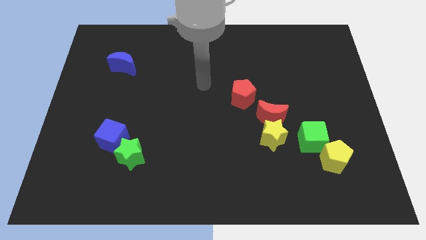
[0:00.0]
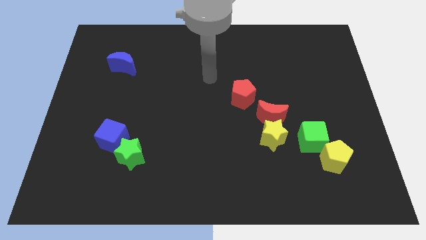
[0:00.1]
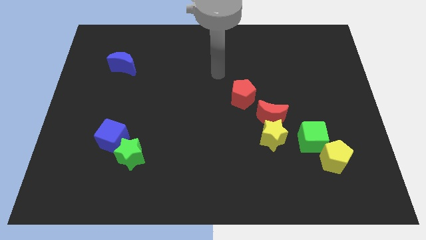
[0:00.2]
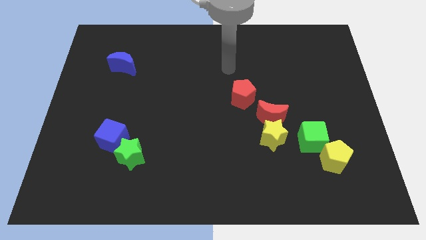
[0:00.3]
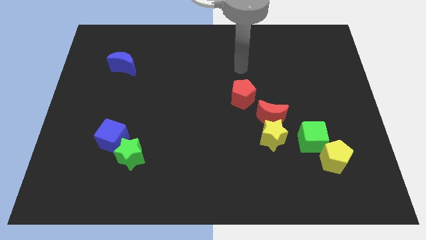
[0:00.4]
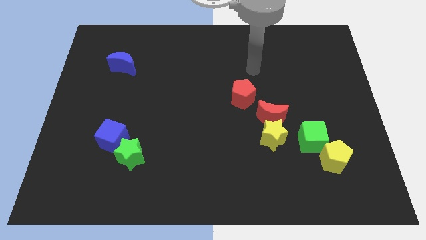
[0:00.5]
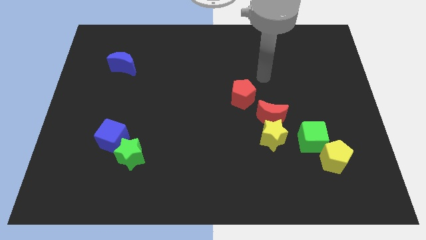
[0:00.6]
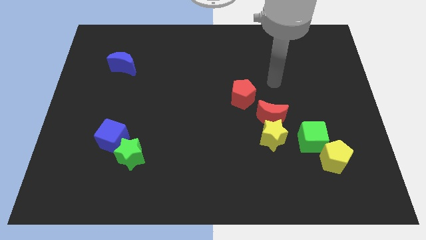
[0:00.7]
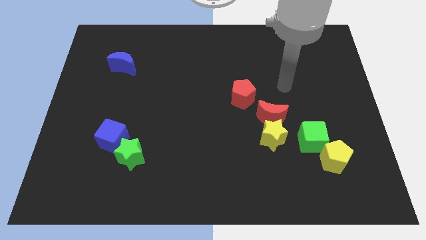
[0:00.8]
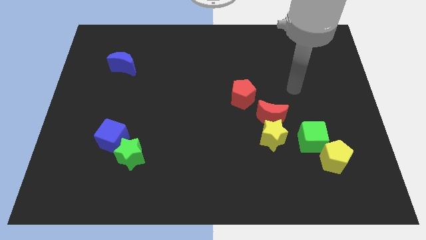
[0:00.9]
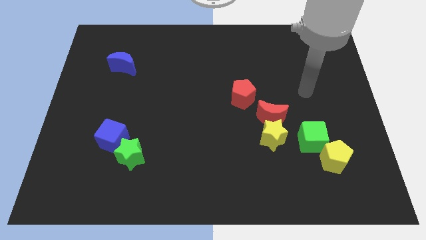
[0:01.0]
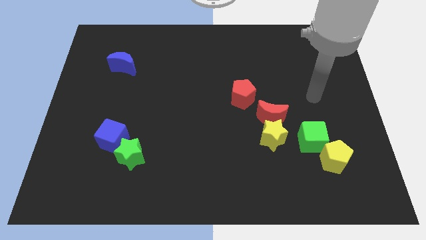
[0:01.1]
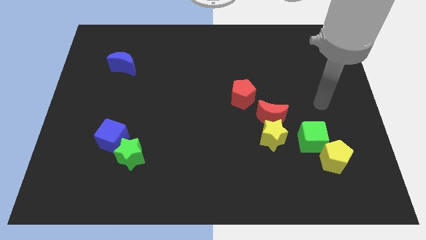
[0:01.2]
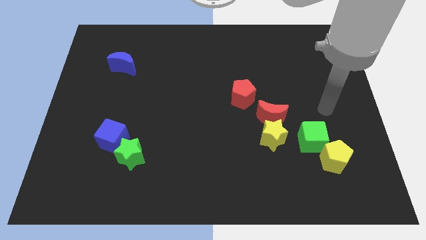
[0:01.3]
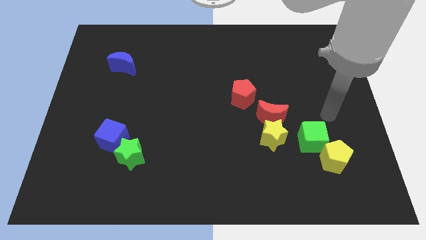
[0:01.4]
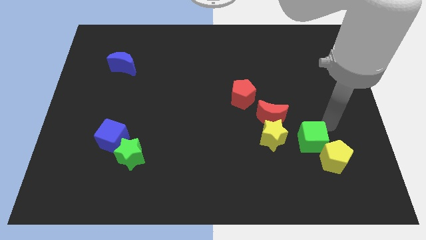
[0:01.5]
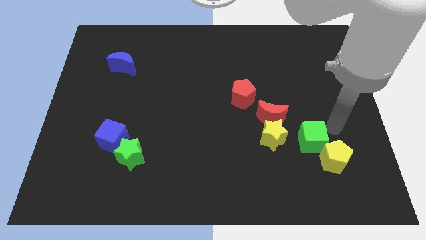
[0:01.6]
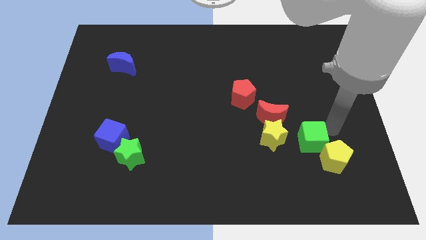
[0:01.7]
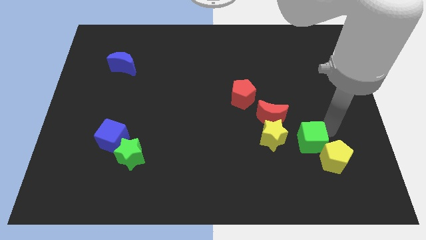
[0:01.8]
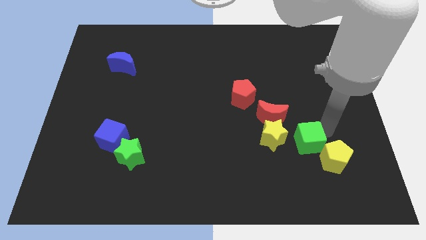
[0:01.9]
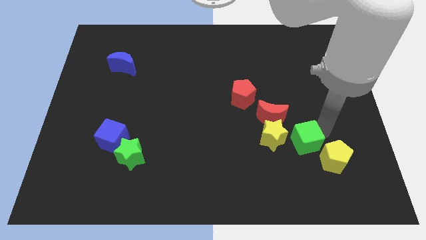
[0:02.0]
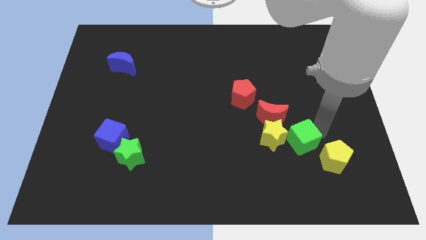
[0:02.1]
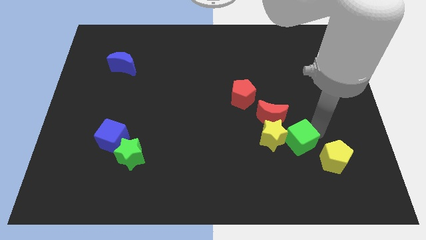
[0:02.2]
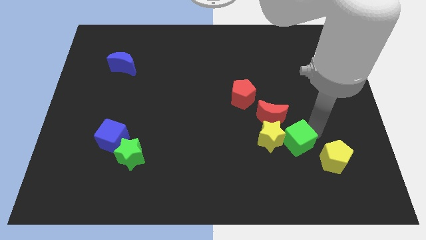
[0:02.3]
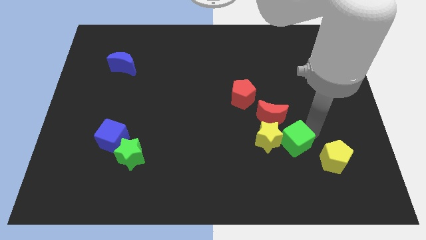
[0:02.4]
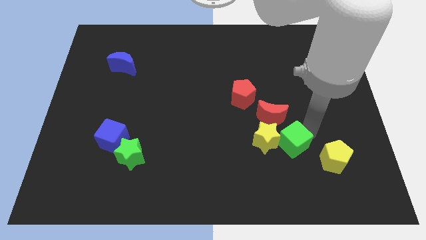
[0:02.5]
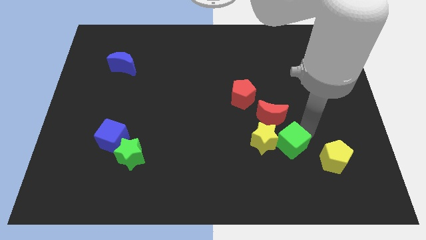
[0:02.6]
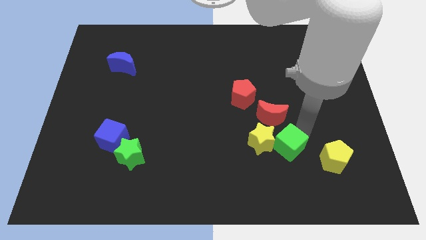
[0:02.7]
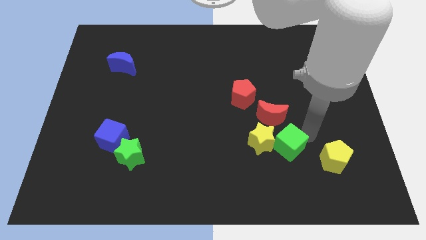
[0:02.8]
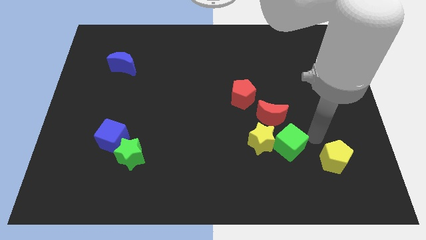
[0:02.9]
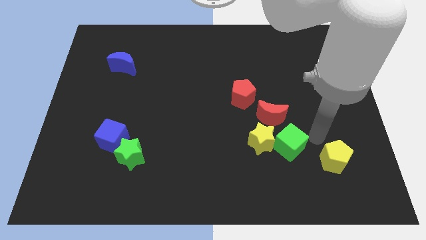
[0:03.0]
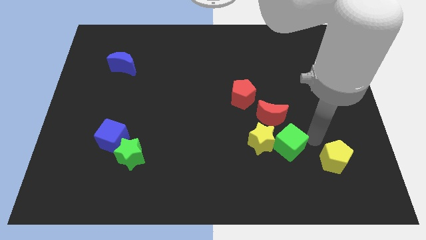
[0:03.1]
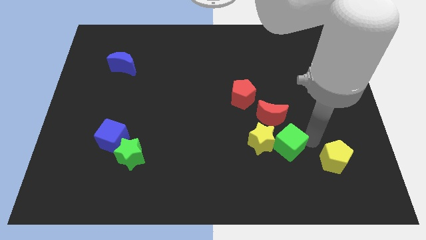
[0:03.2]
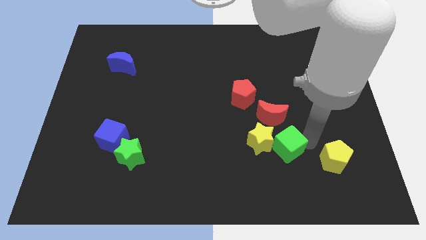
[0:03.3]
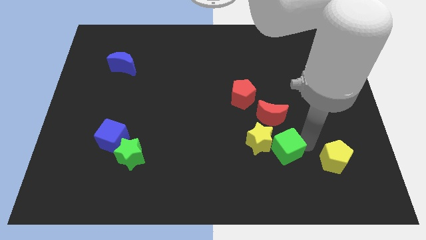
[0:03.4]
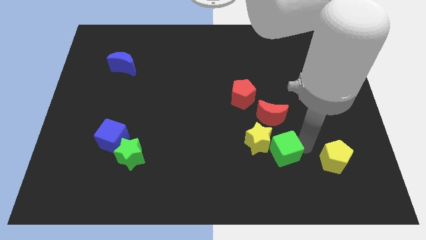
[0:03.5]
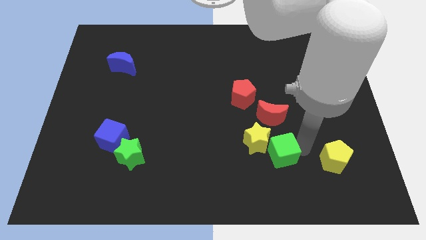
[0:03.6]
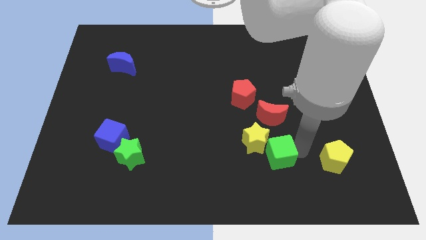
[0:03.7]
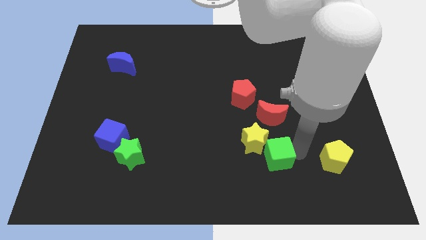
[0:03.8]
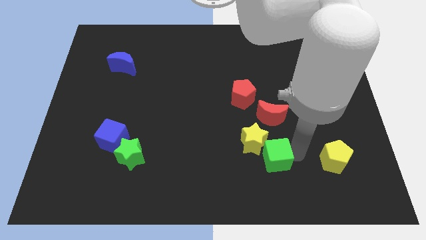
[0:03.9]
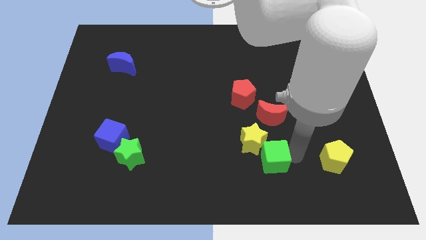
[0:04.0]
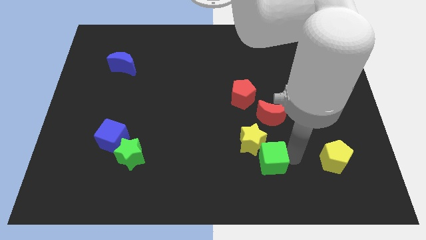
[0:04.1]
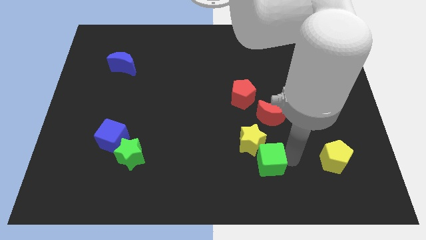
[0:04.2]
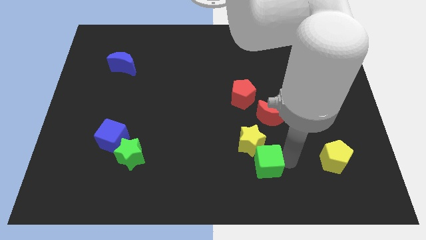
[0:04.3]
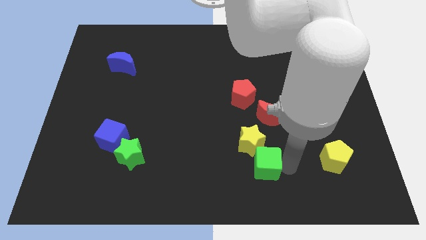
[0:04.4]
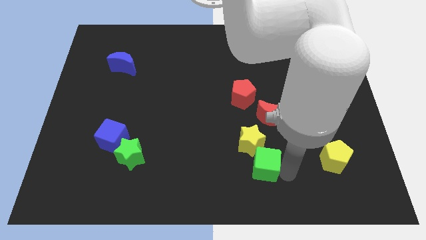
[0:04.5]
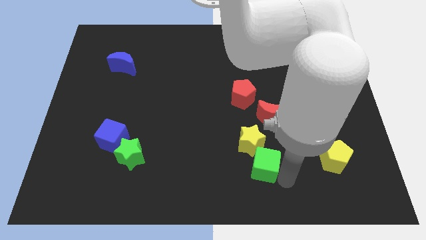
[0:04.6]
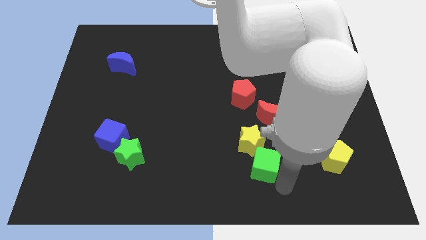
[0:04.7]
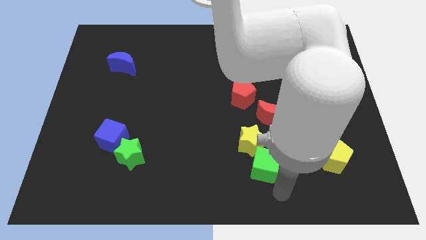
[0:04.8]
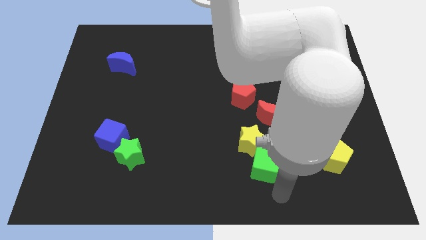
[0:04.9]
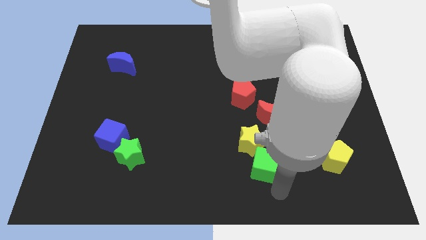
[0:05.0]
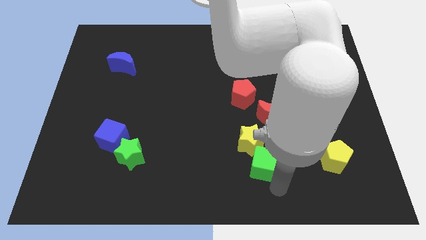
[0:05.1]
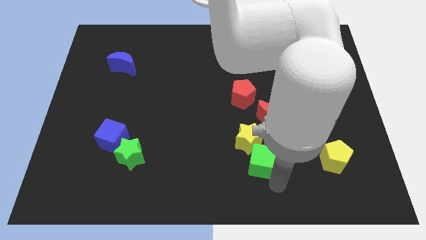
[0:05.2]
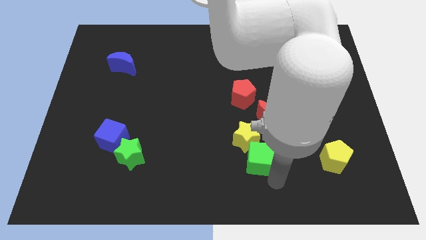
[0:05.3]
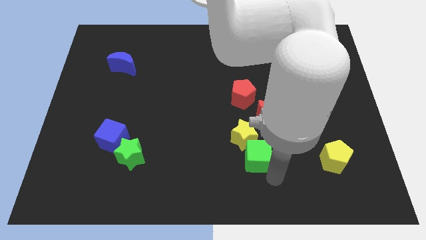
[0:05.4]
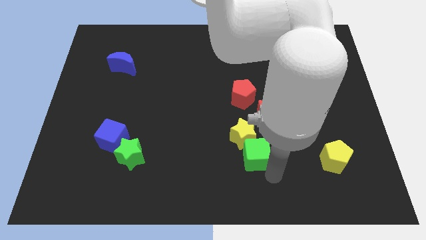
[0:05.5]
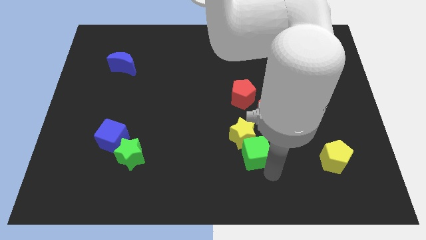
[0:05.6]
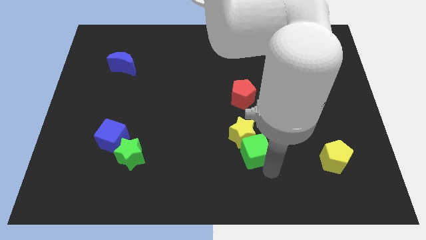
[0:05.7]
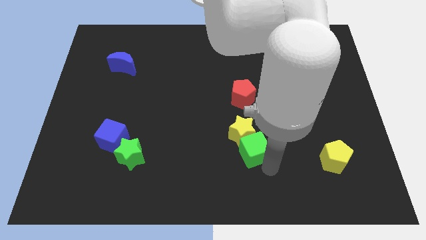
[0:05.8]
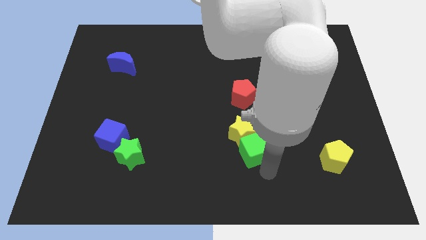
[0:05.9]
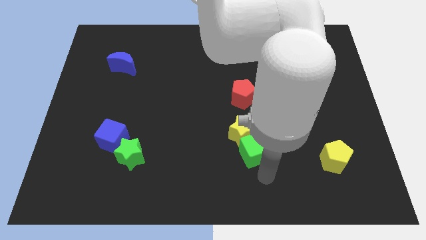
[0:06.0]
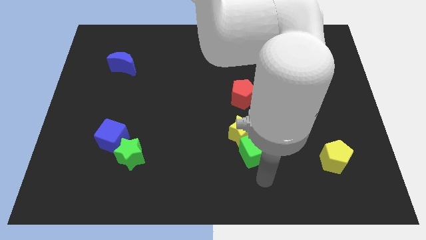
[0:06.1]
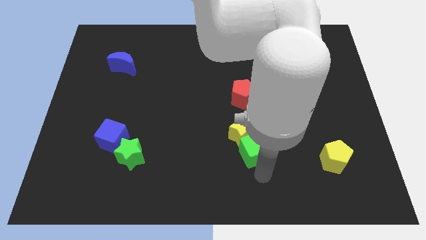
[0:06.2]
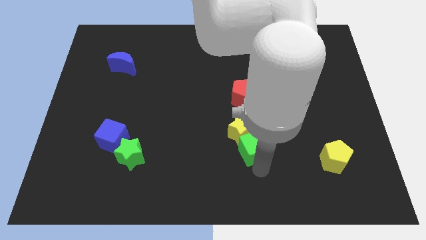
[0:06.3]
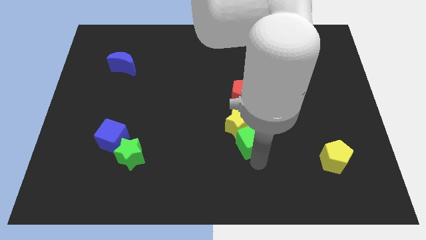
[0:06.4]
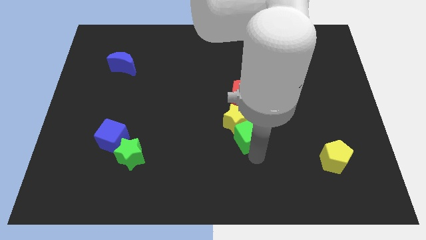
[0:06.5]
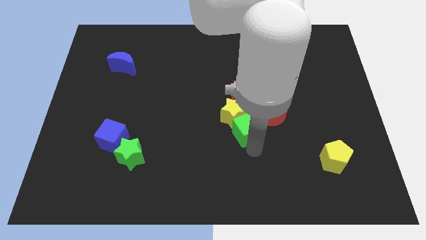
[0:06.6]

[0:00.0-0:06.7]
slide the green cube to the middle
